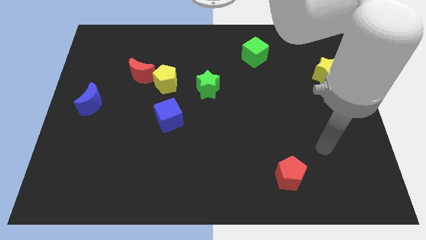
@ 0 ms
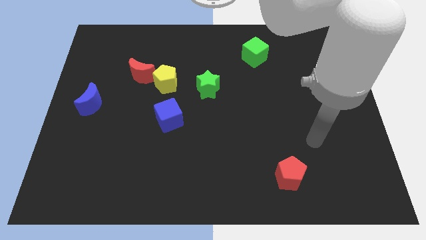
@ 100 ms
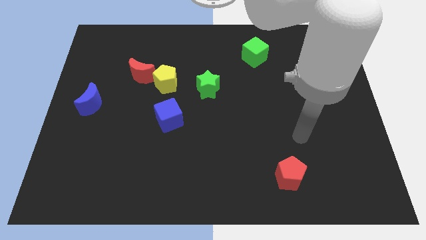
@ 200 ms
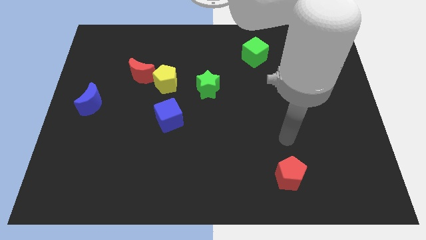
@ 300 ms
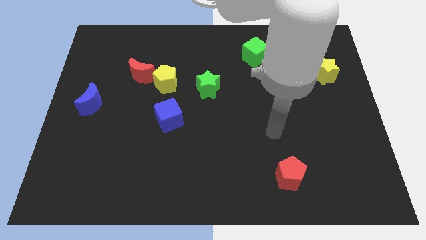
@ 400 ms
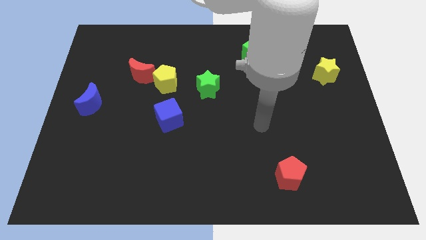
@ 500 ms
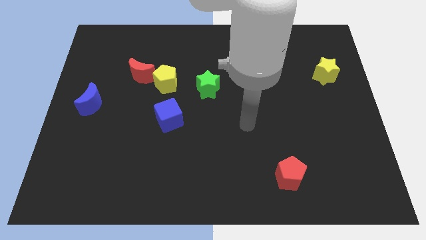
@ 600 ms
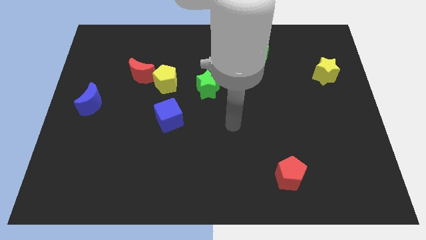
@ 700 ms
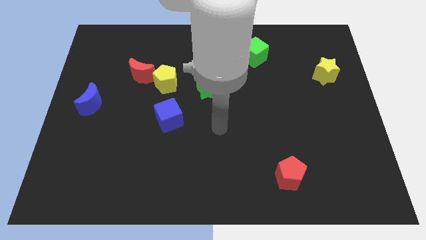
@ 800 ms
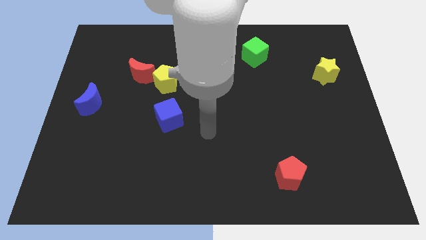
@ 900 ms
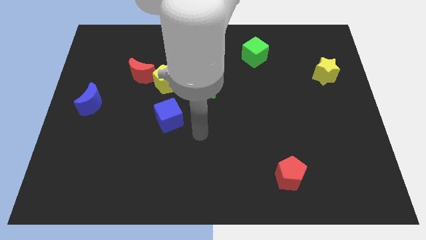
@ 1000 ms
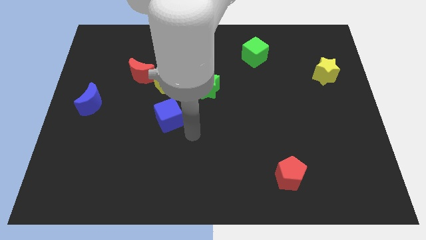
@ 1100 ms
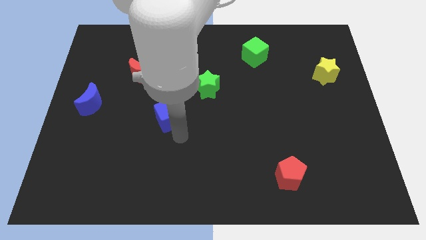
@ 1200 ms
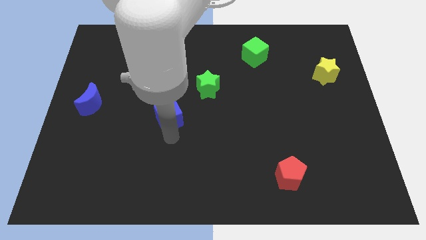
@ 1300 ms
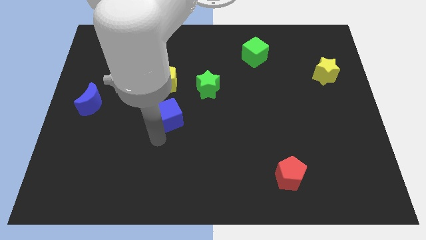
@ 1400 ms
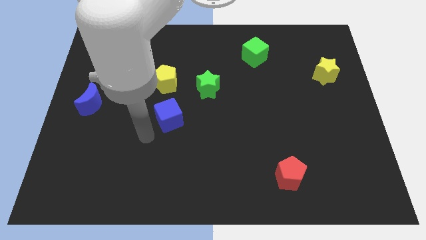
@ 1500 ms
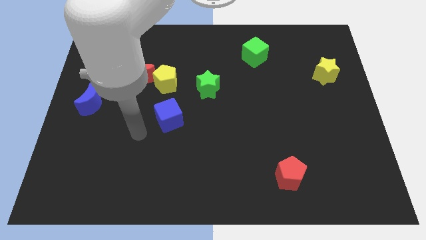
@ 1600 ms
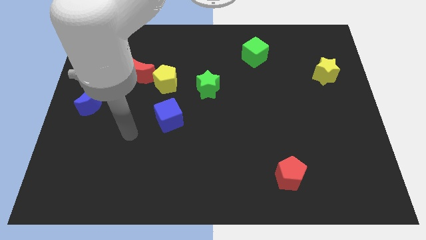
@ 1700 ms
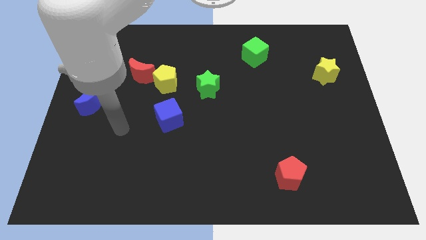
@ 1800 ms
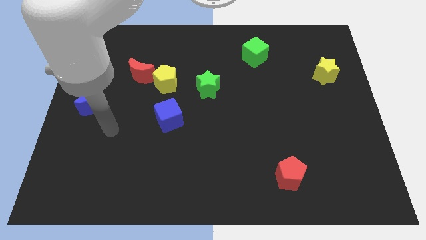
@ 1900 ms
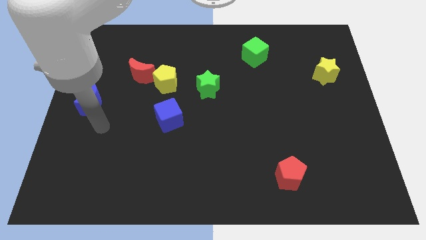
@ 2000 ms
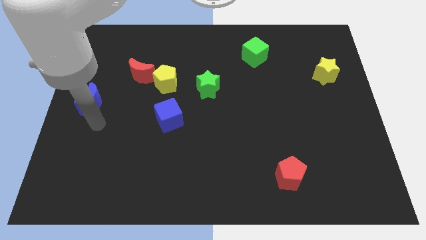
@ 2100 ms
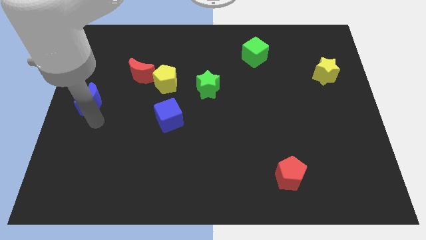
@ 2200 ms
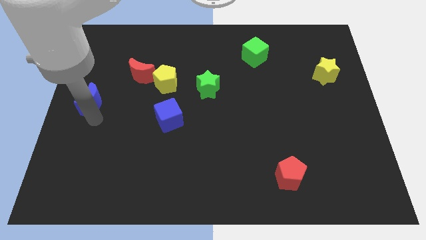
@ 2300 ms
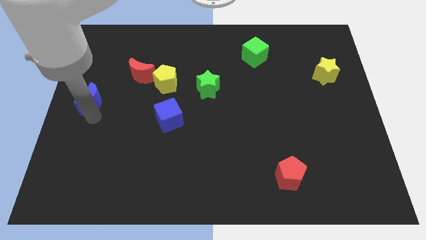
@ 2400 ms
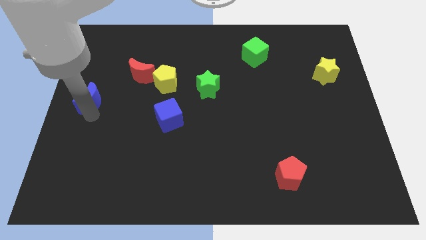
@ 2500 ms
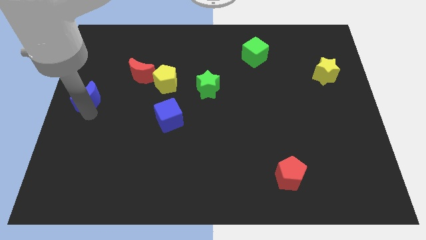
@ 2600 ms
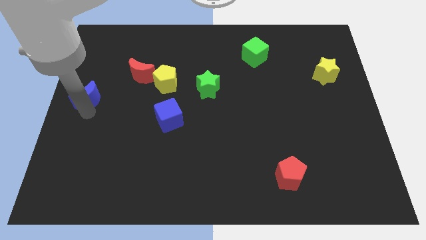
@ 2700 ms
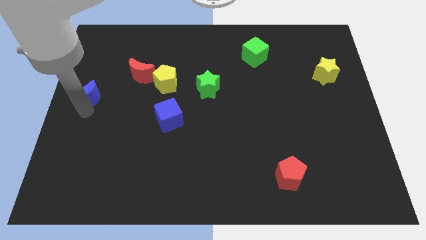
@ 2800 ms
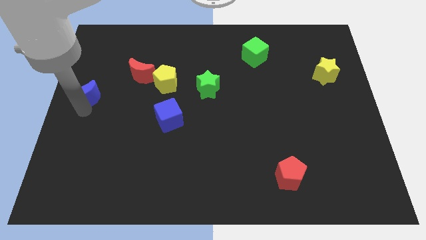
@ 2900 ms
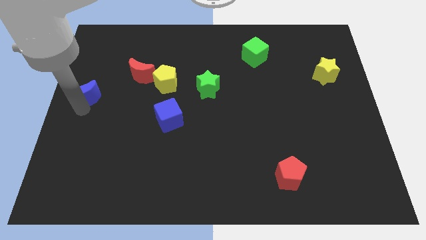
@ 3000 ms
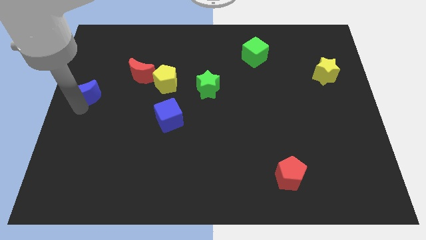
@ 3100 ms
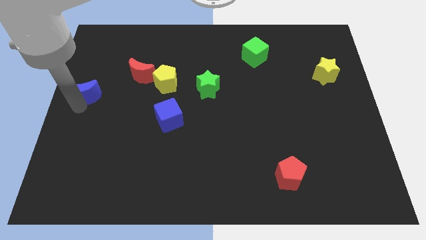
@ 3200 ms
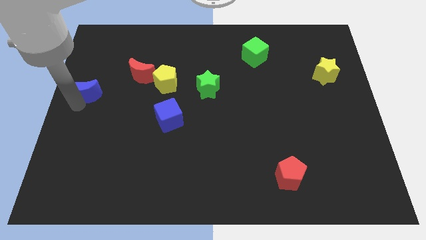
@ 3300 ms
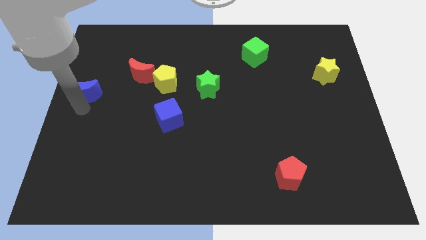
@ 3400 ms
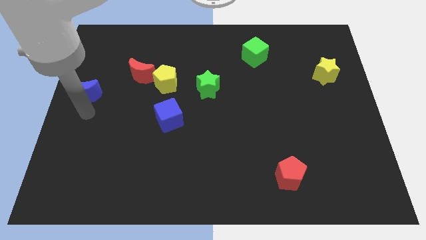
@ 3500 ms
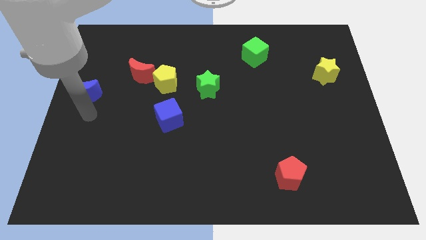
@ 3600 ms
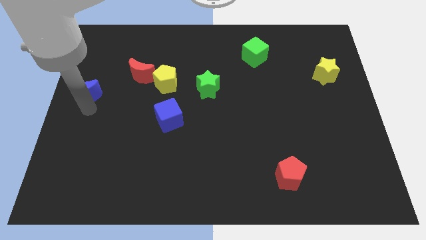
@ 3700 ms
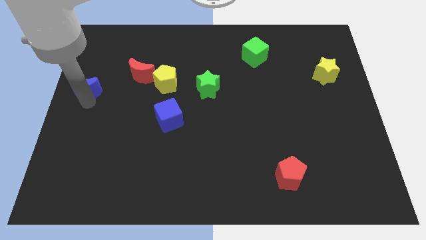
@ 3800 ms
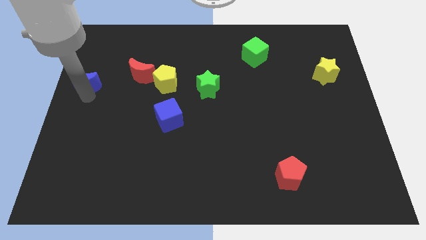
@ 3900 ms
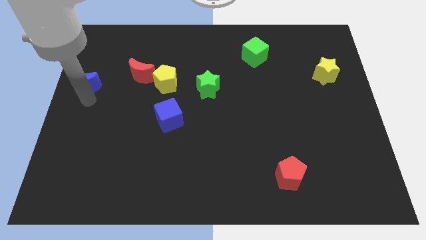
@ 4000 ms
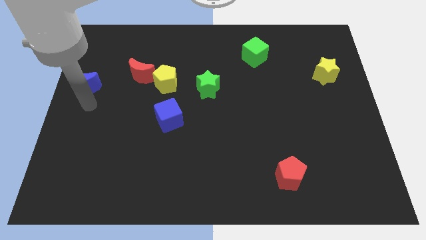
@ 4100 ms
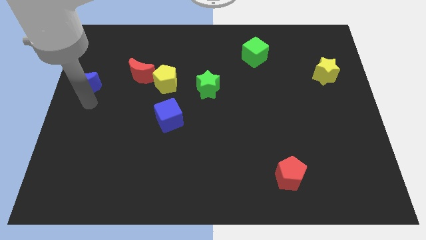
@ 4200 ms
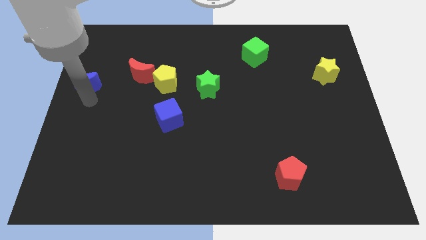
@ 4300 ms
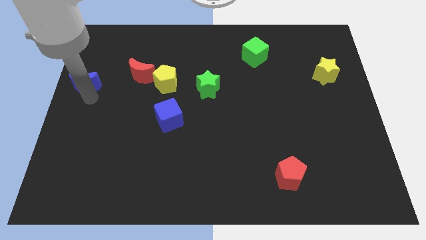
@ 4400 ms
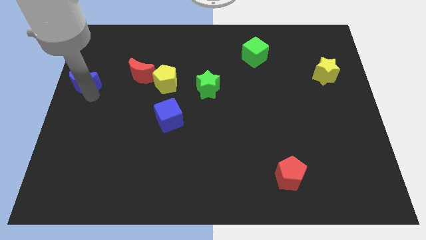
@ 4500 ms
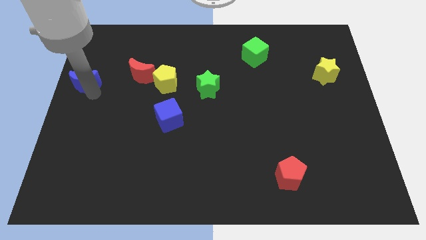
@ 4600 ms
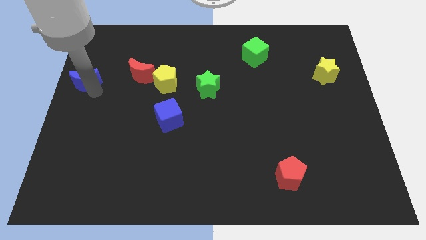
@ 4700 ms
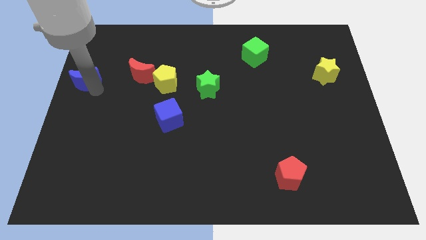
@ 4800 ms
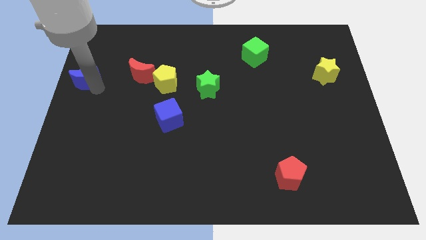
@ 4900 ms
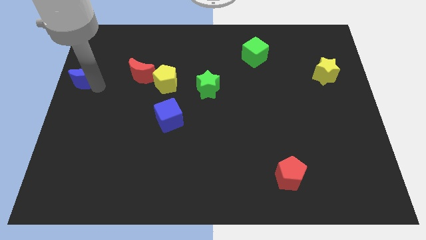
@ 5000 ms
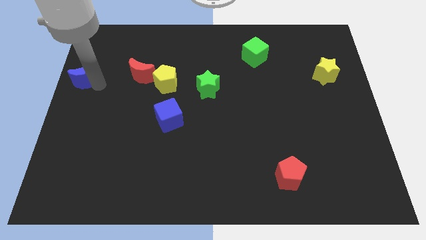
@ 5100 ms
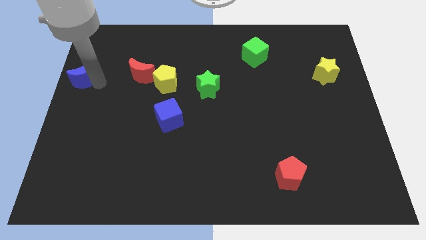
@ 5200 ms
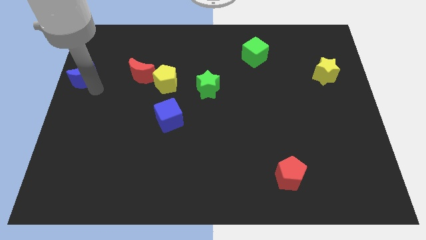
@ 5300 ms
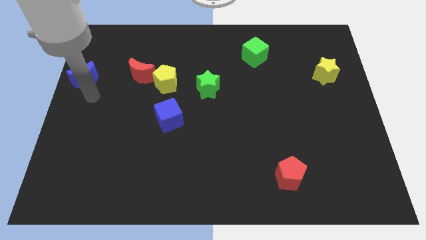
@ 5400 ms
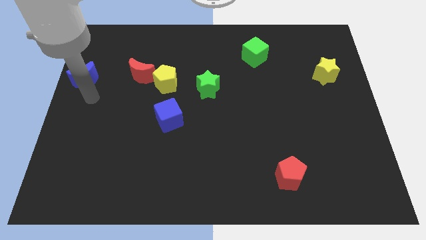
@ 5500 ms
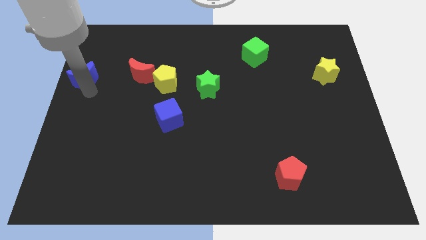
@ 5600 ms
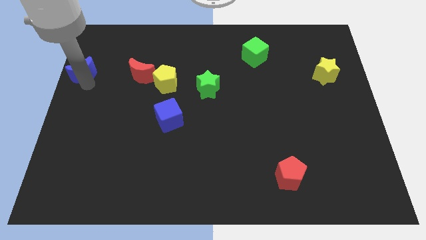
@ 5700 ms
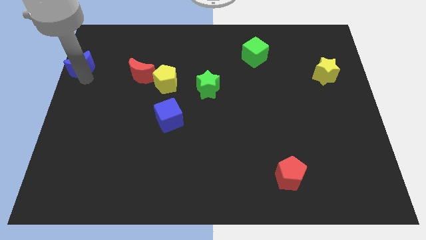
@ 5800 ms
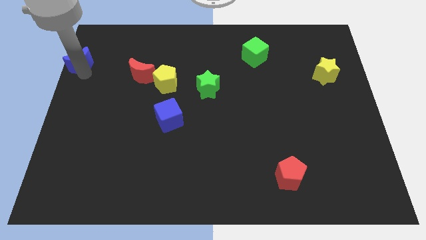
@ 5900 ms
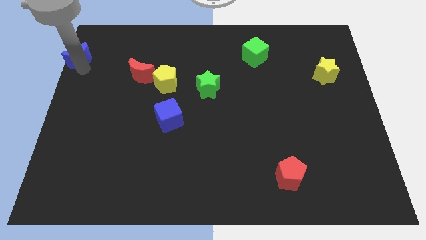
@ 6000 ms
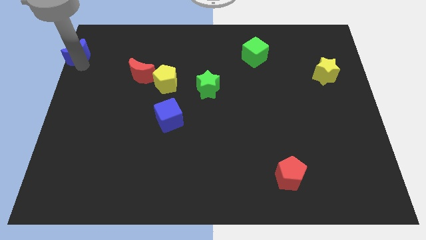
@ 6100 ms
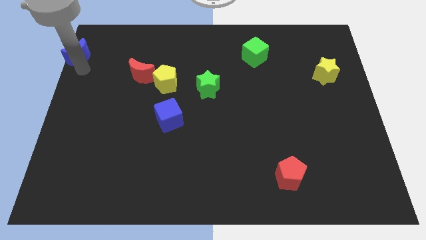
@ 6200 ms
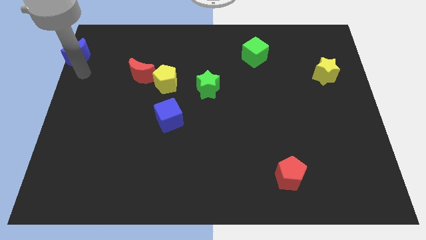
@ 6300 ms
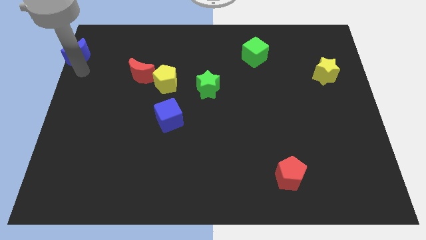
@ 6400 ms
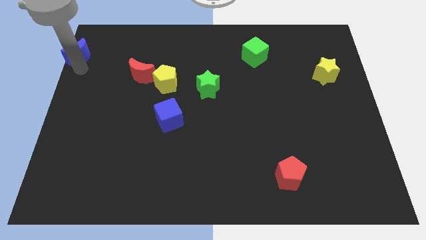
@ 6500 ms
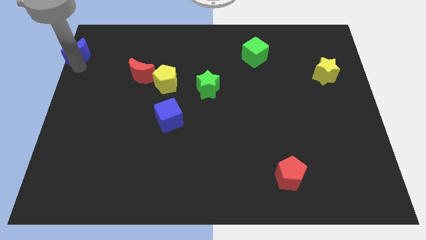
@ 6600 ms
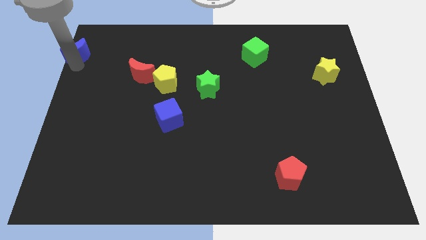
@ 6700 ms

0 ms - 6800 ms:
put the blue moon to the top left

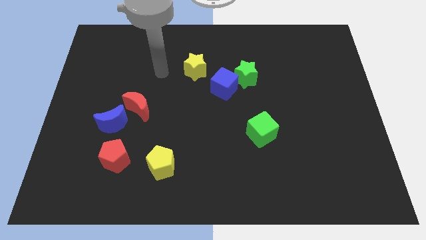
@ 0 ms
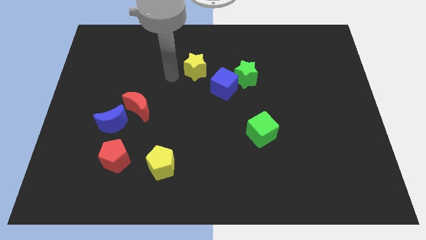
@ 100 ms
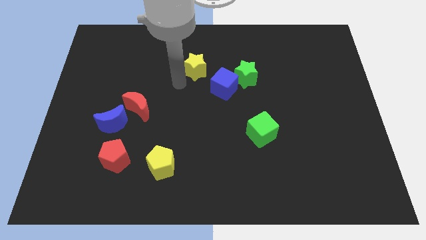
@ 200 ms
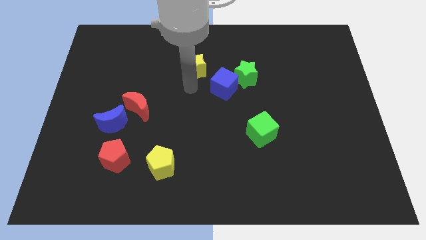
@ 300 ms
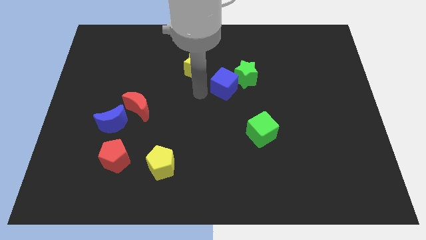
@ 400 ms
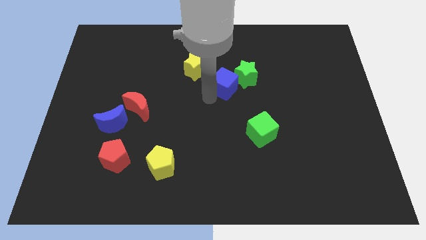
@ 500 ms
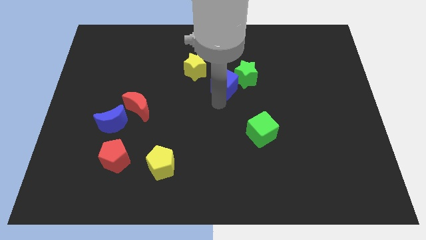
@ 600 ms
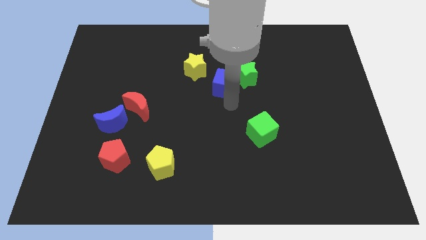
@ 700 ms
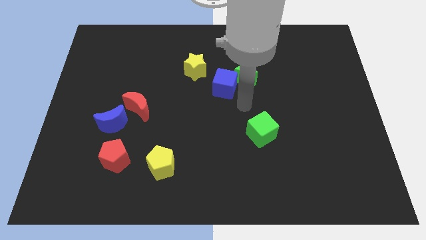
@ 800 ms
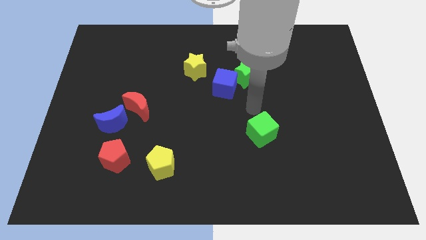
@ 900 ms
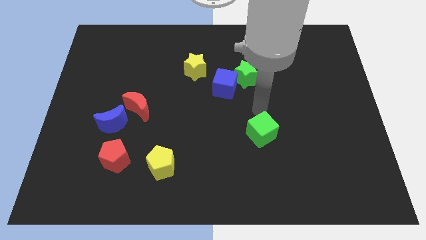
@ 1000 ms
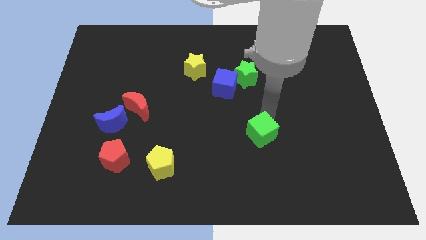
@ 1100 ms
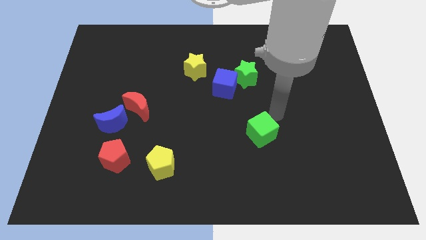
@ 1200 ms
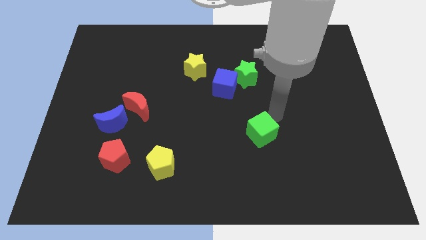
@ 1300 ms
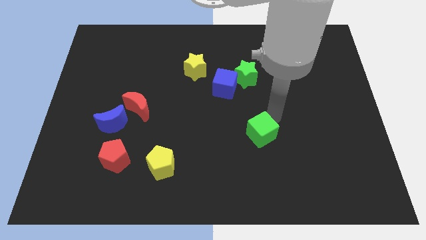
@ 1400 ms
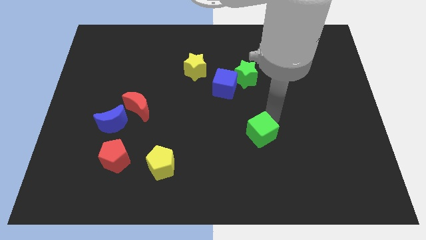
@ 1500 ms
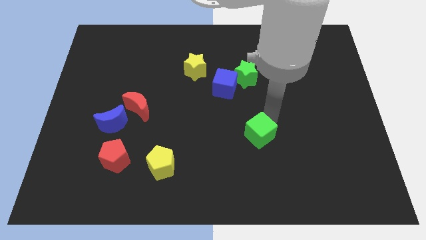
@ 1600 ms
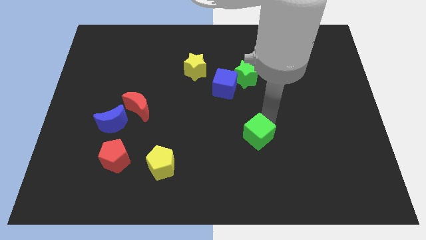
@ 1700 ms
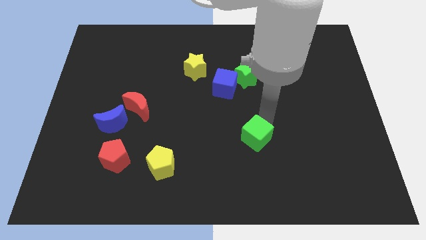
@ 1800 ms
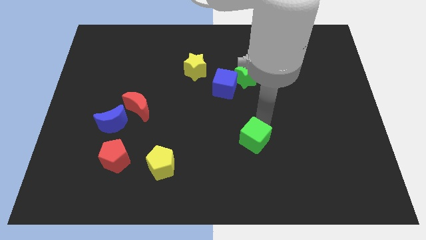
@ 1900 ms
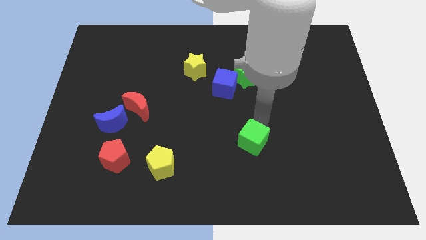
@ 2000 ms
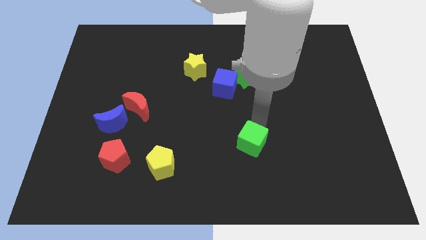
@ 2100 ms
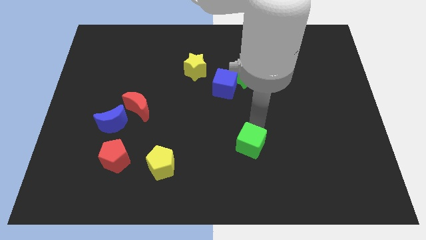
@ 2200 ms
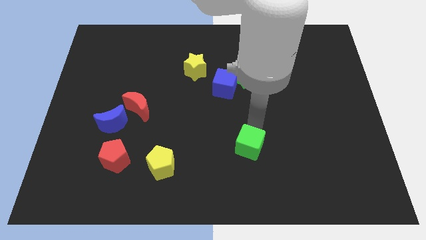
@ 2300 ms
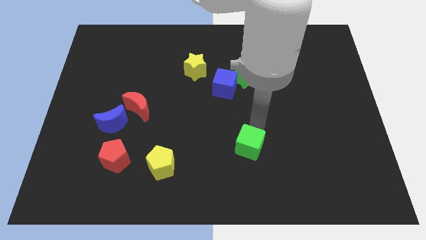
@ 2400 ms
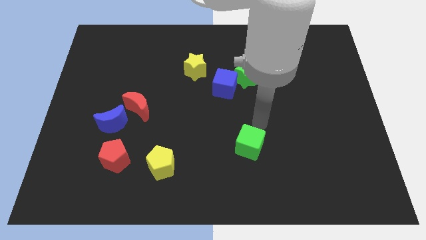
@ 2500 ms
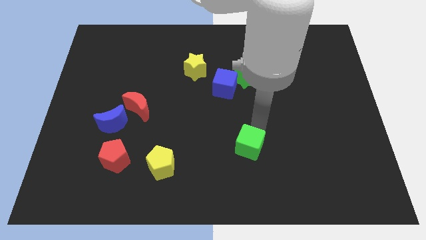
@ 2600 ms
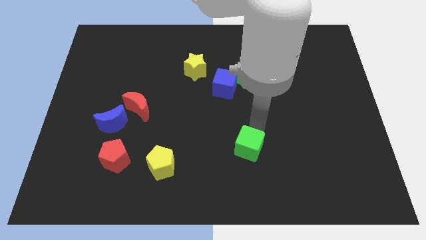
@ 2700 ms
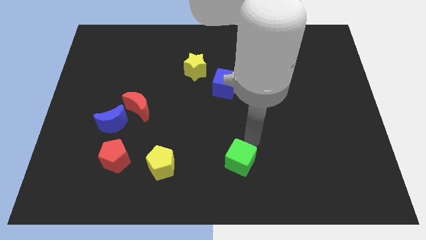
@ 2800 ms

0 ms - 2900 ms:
put the green cube to the bottom side
